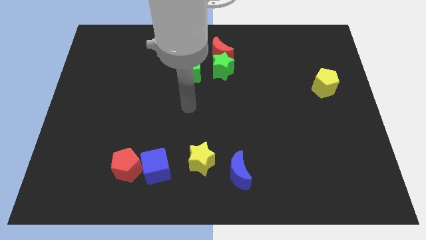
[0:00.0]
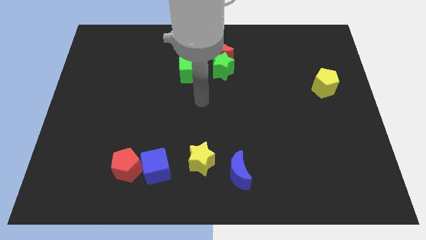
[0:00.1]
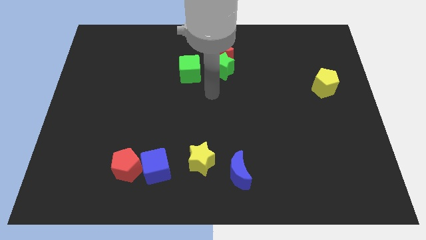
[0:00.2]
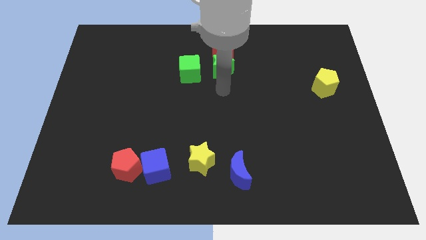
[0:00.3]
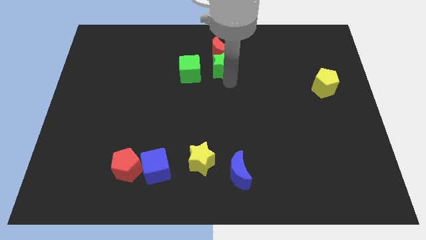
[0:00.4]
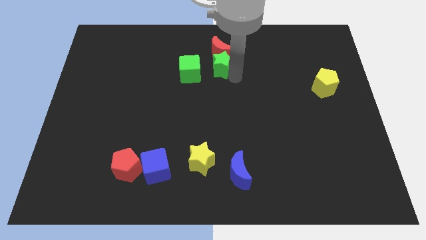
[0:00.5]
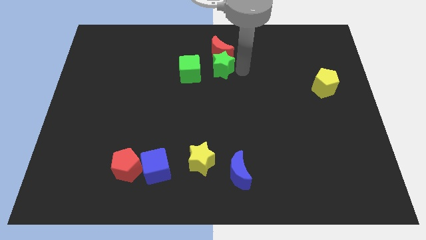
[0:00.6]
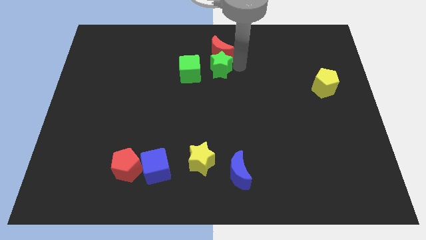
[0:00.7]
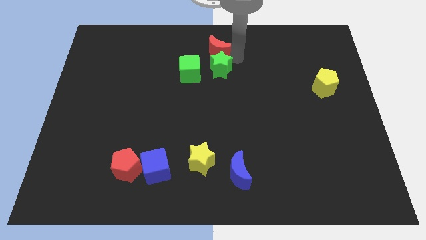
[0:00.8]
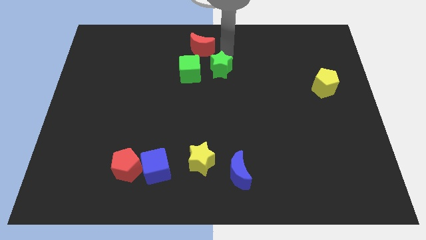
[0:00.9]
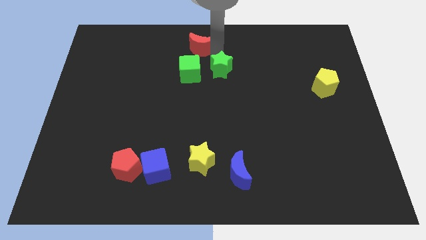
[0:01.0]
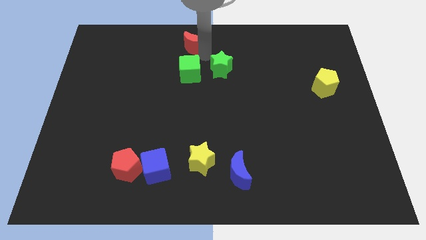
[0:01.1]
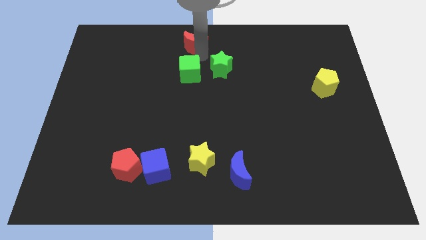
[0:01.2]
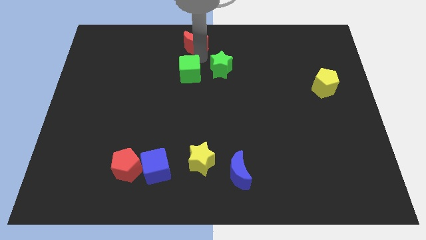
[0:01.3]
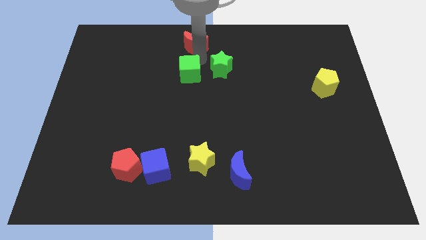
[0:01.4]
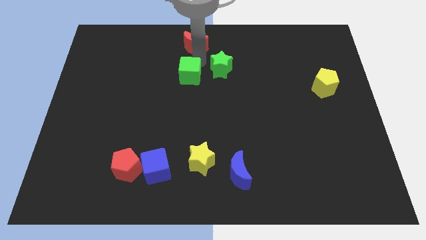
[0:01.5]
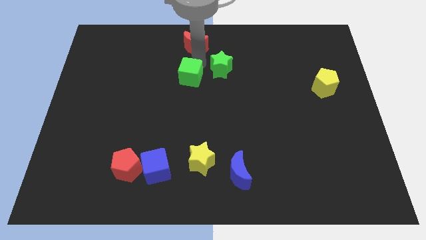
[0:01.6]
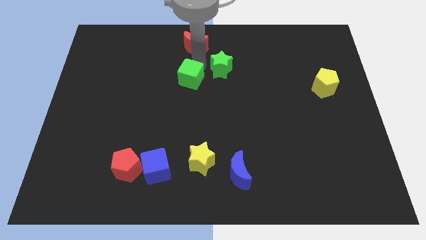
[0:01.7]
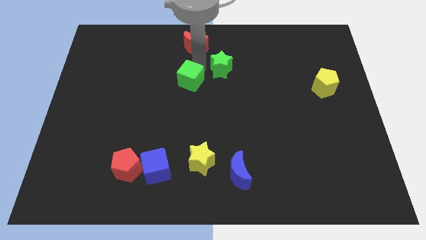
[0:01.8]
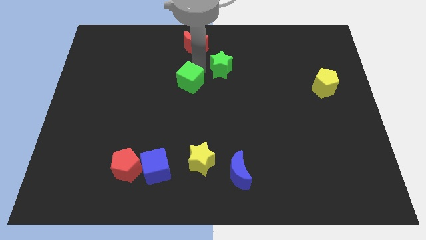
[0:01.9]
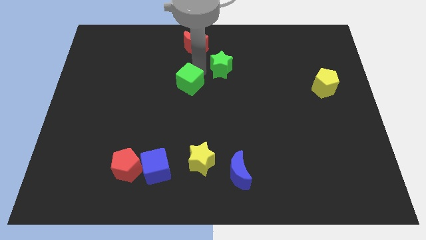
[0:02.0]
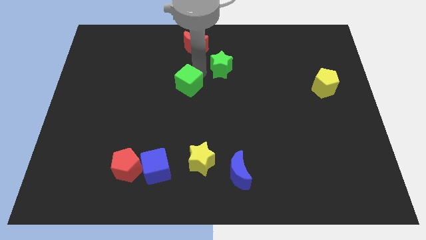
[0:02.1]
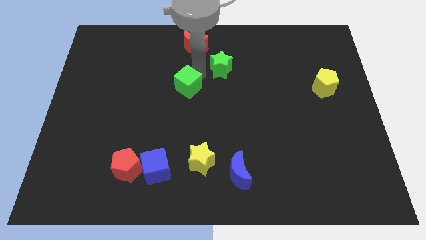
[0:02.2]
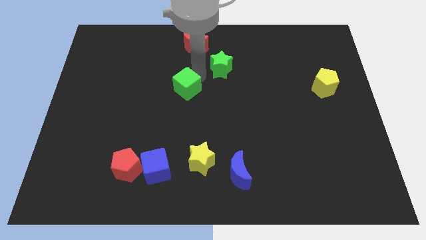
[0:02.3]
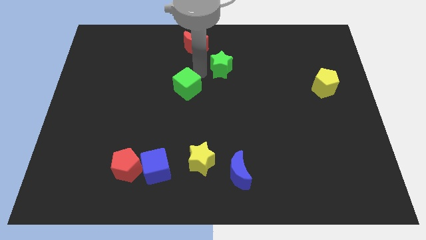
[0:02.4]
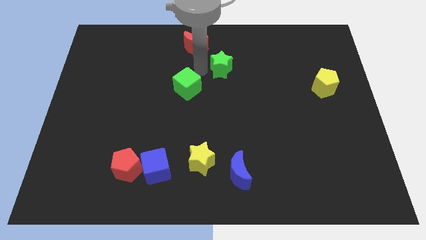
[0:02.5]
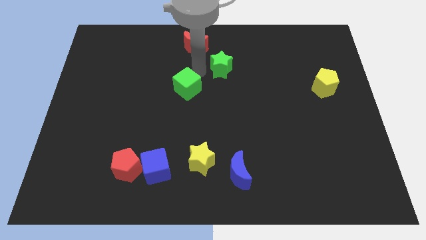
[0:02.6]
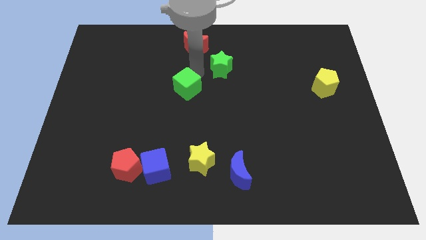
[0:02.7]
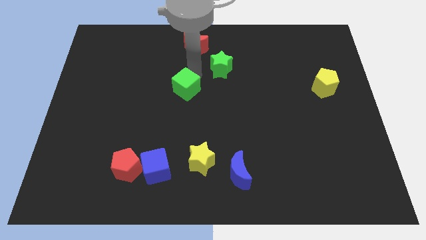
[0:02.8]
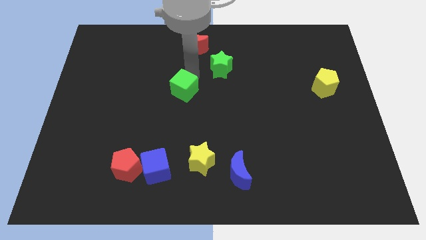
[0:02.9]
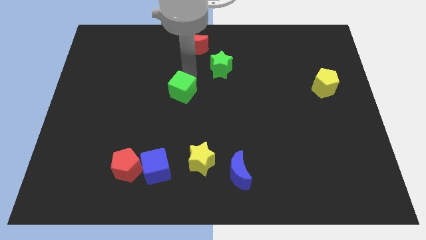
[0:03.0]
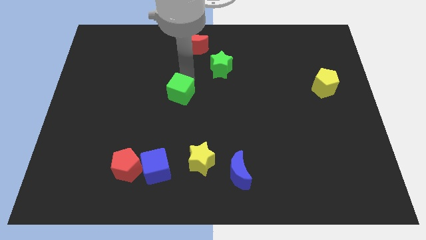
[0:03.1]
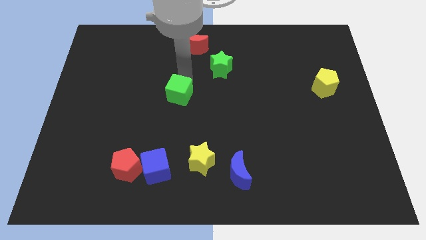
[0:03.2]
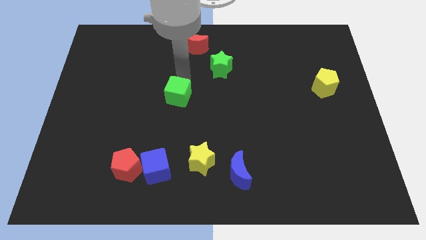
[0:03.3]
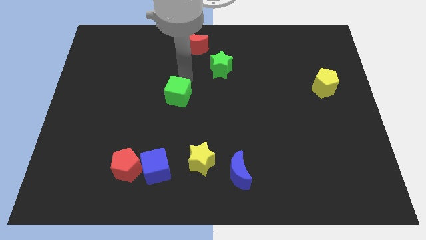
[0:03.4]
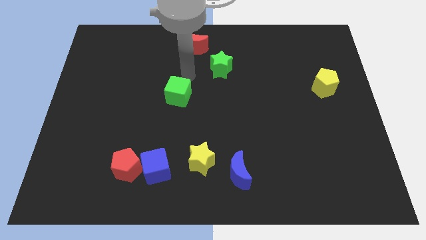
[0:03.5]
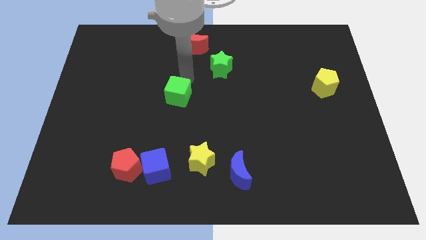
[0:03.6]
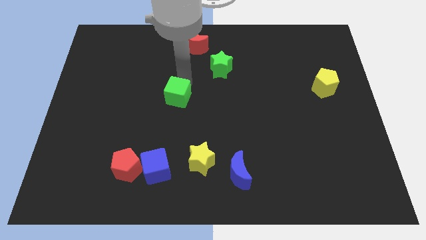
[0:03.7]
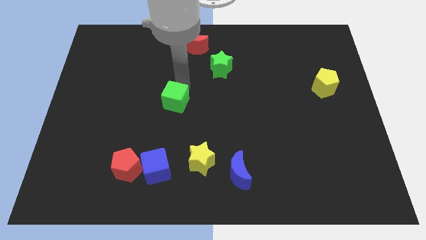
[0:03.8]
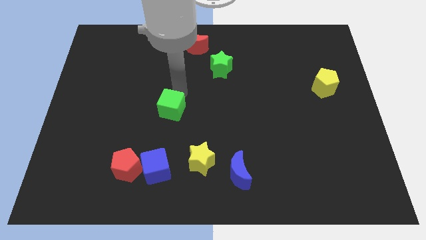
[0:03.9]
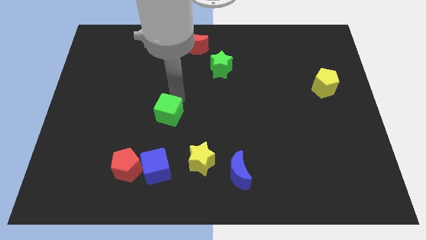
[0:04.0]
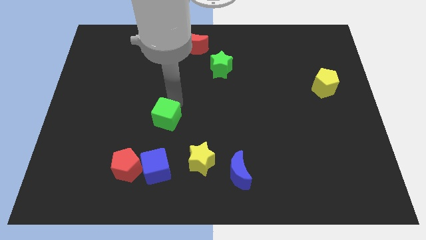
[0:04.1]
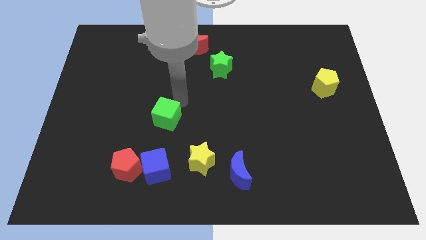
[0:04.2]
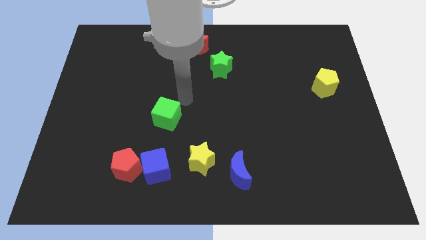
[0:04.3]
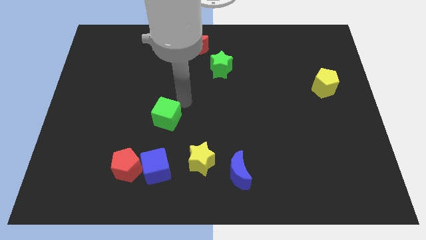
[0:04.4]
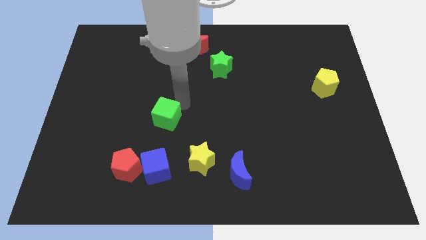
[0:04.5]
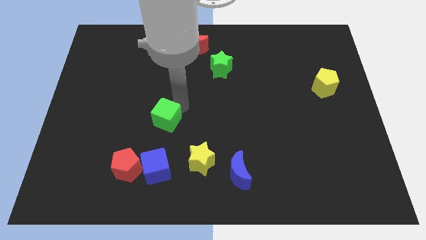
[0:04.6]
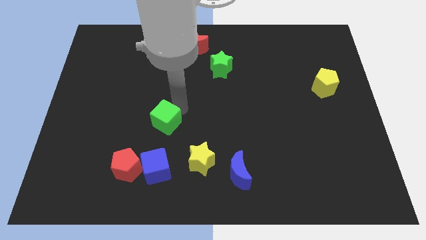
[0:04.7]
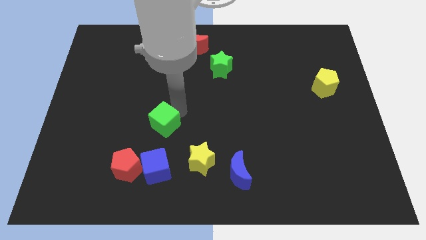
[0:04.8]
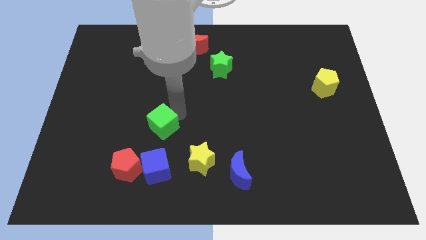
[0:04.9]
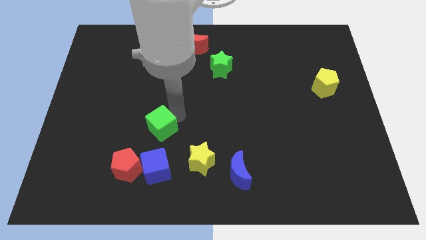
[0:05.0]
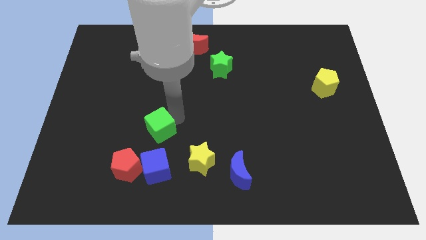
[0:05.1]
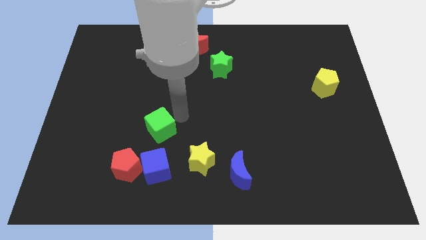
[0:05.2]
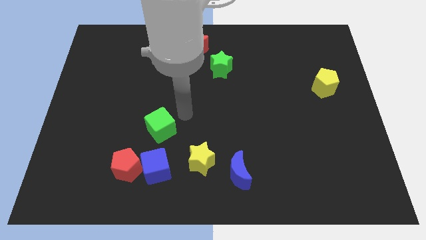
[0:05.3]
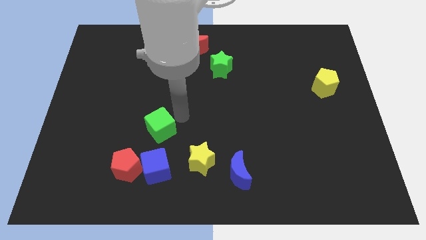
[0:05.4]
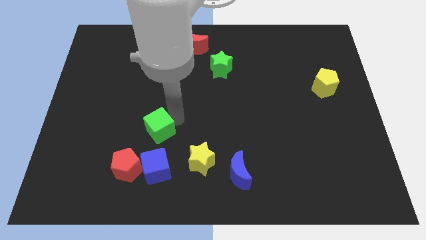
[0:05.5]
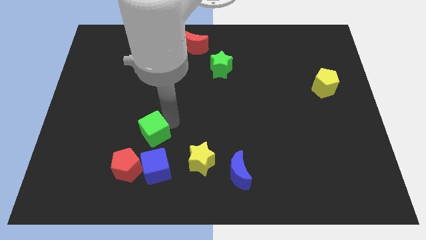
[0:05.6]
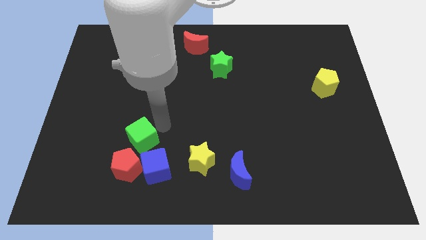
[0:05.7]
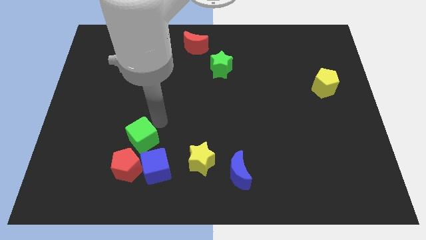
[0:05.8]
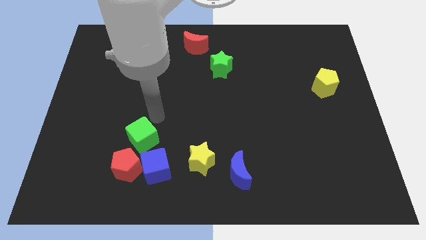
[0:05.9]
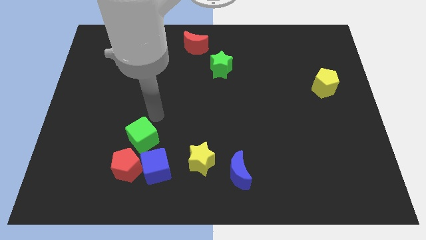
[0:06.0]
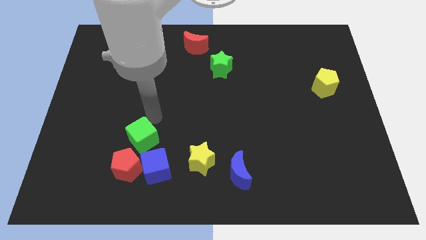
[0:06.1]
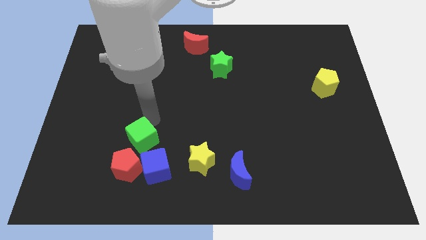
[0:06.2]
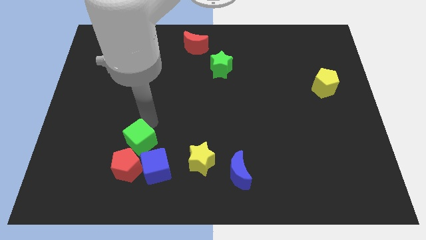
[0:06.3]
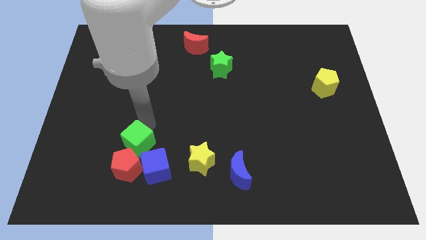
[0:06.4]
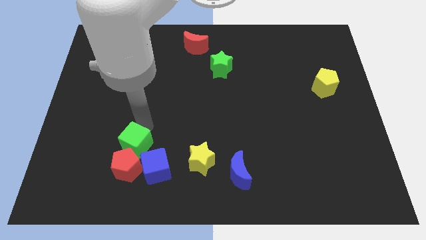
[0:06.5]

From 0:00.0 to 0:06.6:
slide the green cube to the red pentagon
